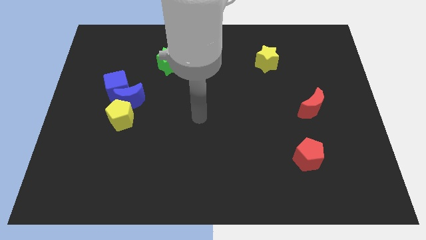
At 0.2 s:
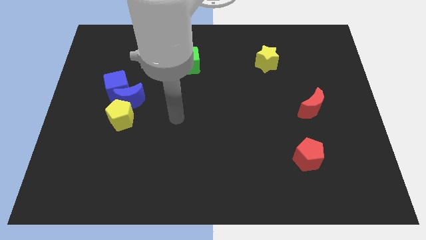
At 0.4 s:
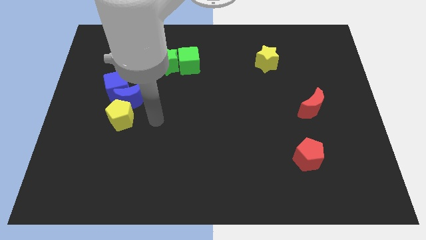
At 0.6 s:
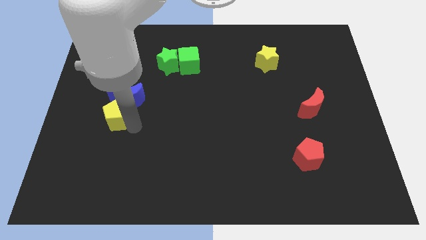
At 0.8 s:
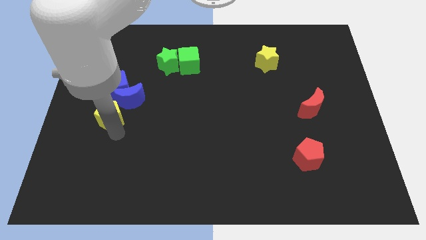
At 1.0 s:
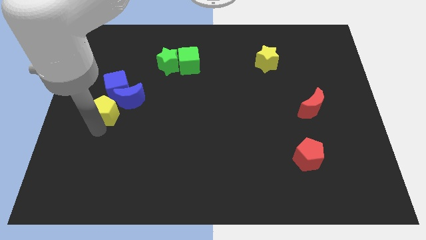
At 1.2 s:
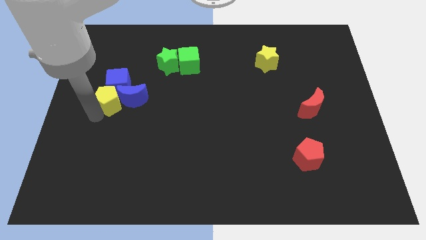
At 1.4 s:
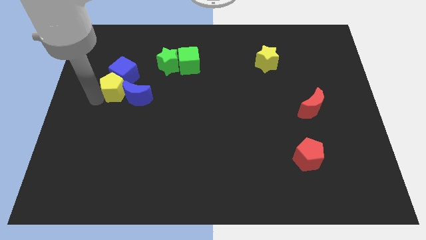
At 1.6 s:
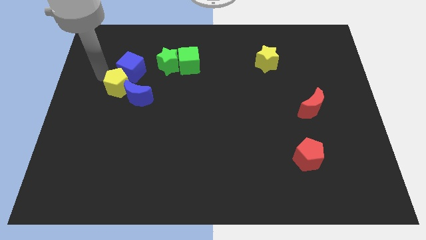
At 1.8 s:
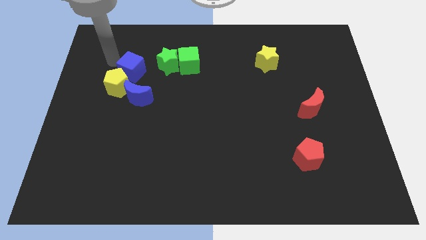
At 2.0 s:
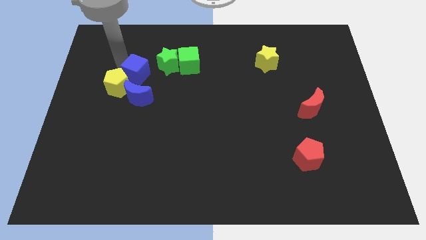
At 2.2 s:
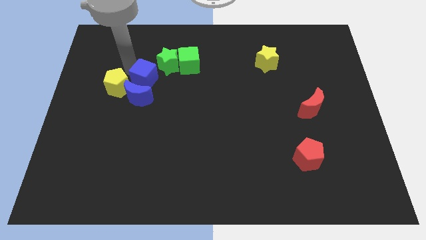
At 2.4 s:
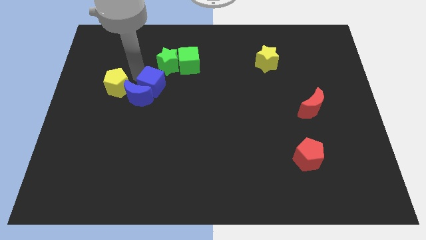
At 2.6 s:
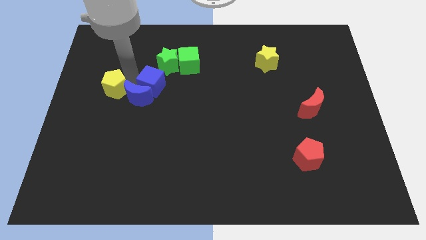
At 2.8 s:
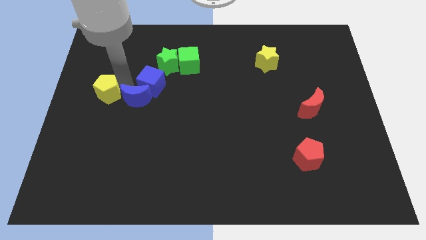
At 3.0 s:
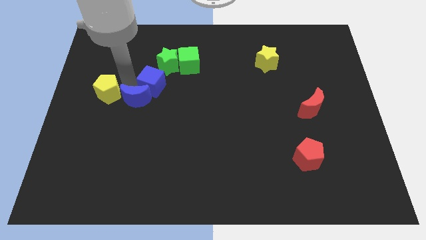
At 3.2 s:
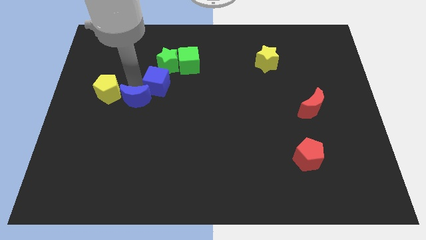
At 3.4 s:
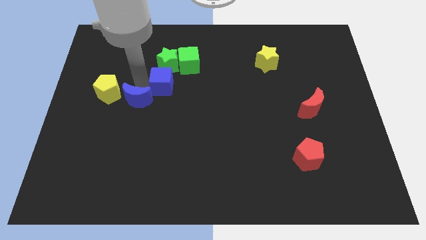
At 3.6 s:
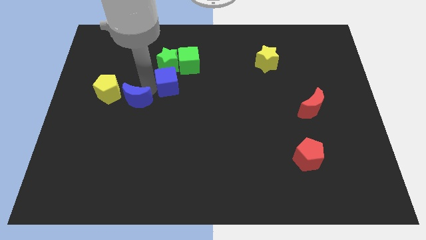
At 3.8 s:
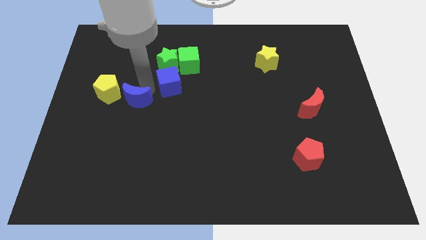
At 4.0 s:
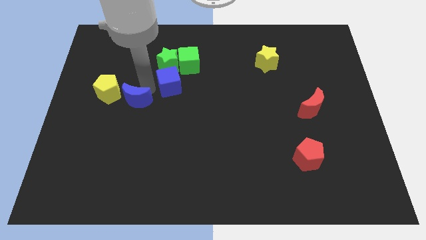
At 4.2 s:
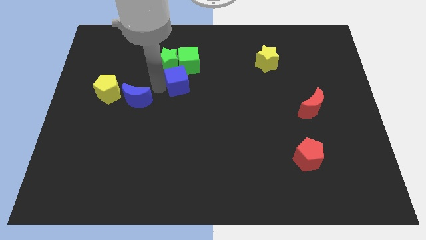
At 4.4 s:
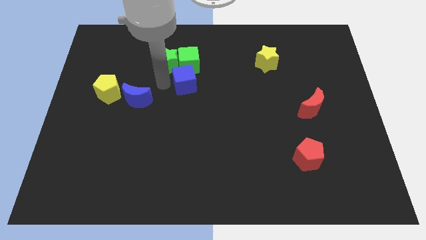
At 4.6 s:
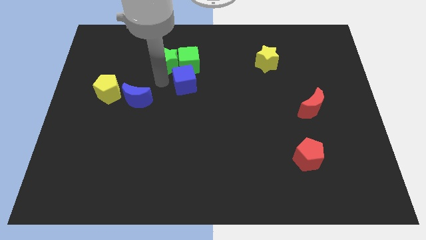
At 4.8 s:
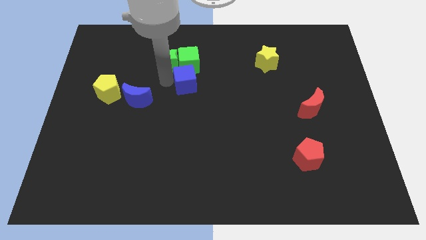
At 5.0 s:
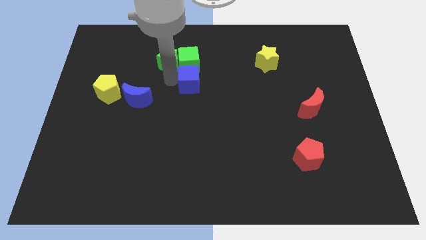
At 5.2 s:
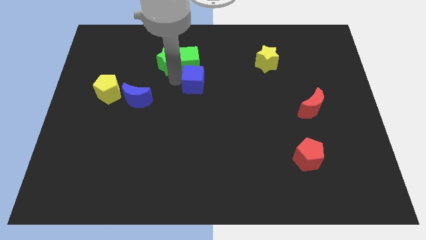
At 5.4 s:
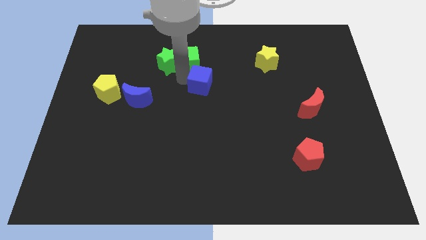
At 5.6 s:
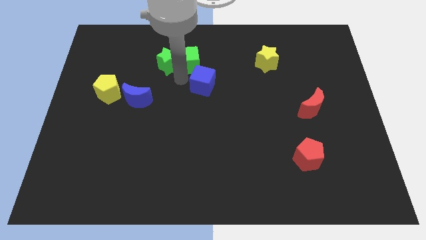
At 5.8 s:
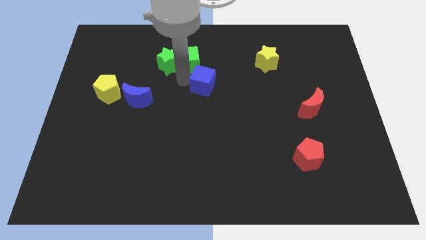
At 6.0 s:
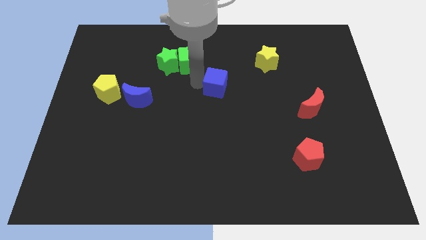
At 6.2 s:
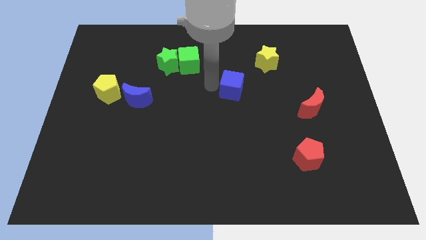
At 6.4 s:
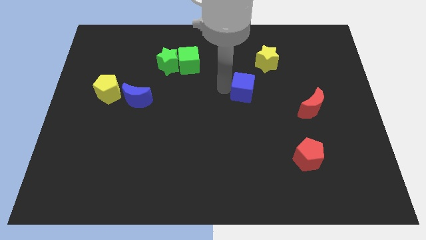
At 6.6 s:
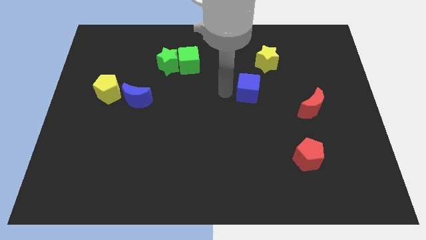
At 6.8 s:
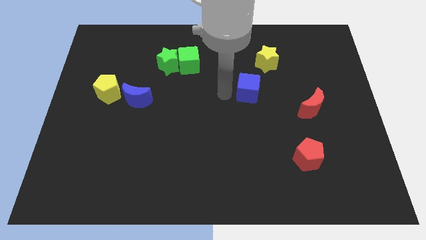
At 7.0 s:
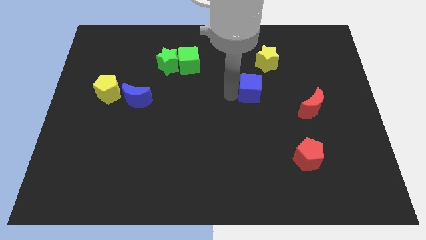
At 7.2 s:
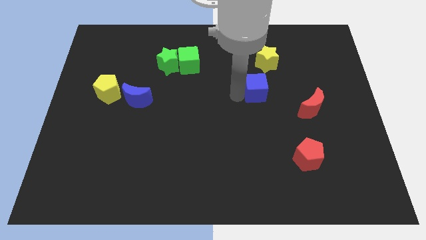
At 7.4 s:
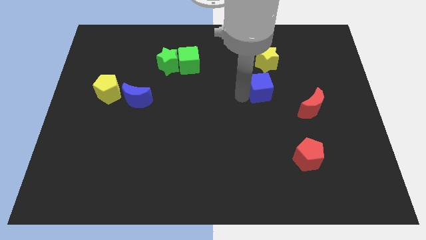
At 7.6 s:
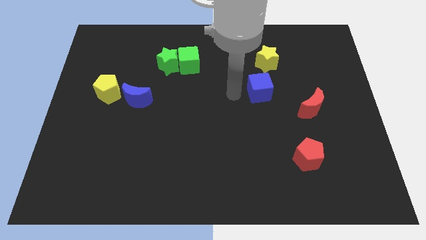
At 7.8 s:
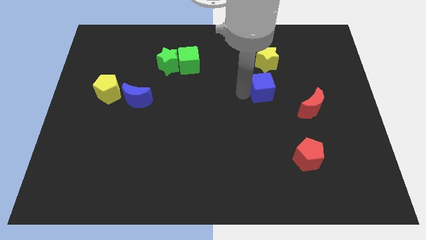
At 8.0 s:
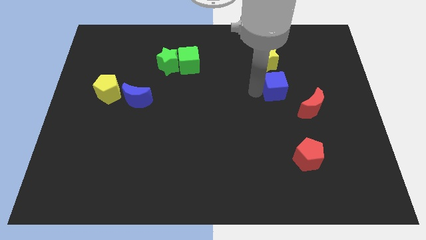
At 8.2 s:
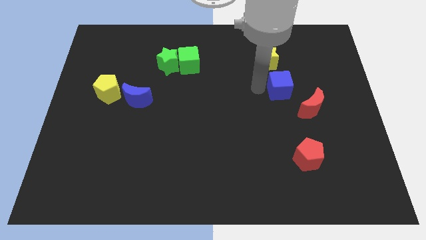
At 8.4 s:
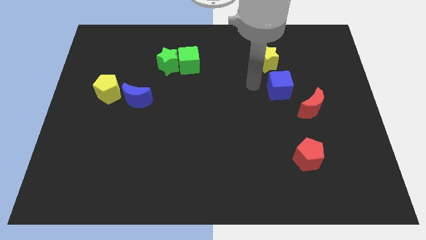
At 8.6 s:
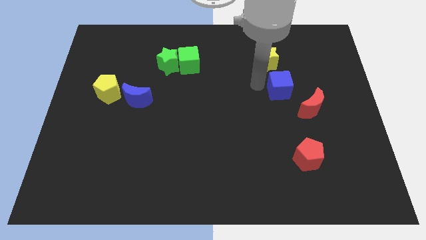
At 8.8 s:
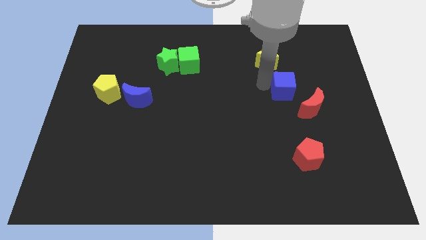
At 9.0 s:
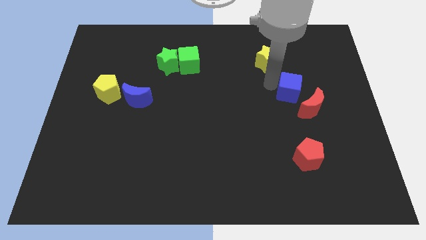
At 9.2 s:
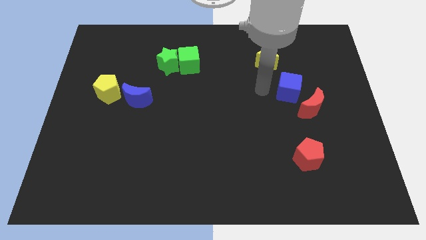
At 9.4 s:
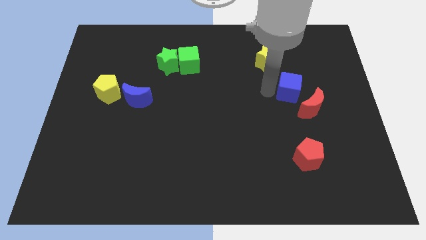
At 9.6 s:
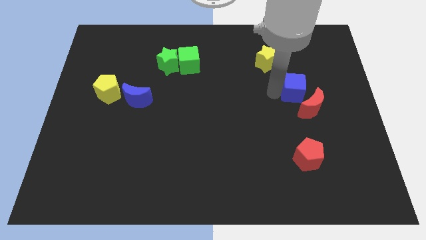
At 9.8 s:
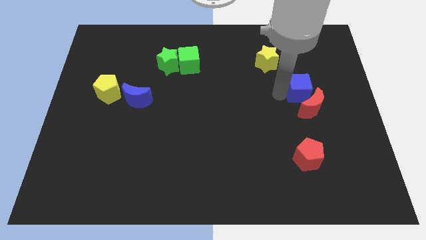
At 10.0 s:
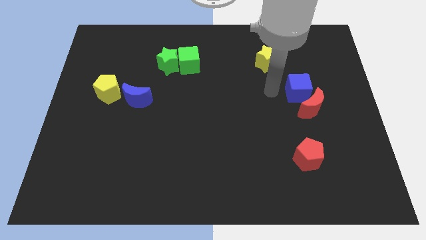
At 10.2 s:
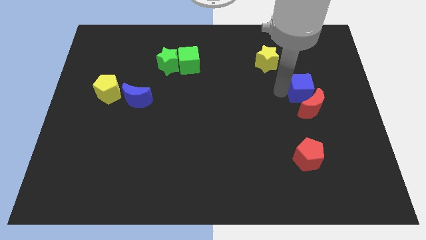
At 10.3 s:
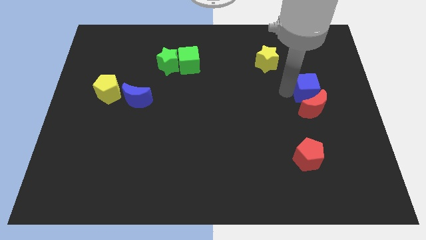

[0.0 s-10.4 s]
slide the blue cube to the top right of the red moon

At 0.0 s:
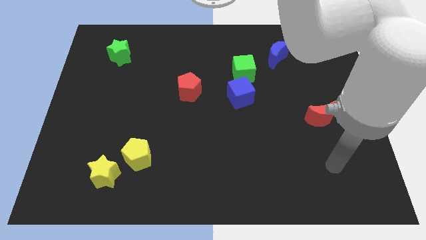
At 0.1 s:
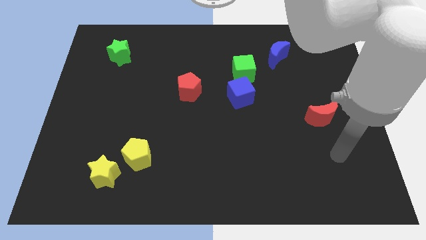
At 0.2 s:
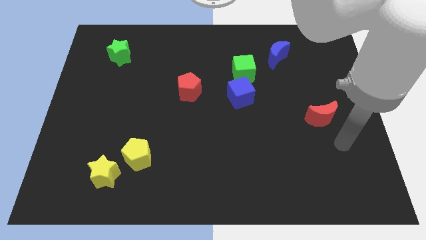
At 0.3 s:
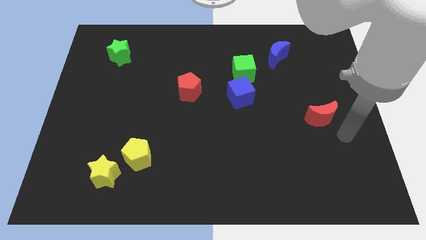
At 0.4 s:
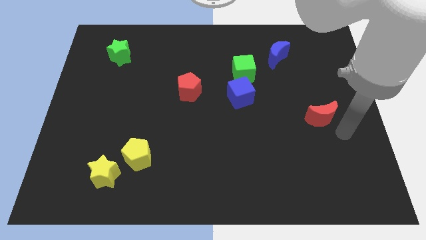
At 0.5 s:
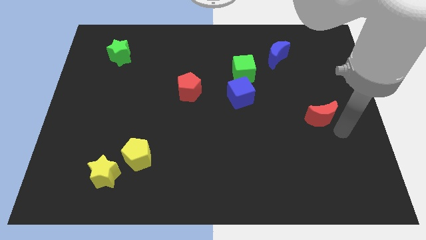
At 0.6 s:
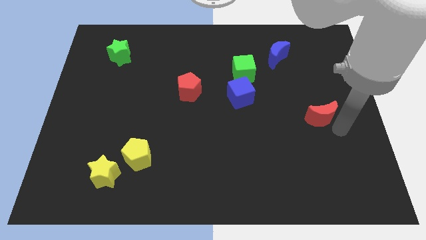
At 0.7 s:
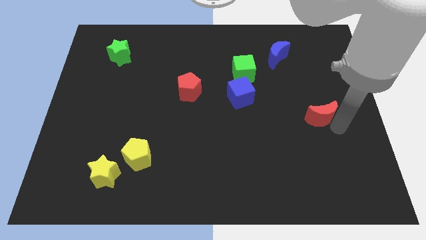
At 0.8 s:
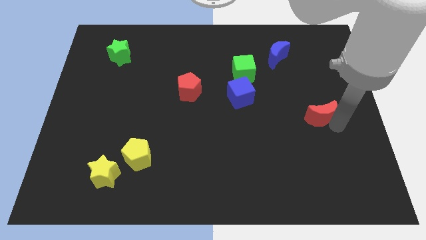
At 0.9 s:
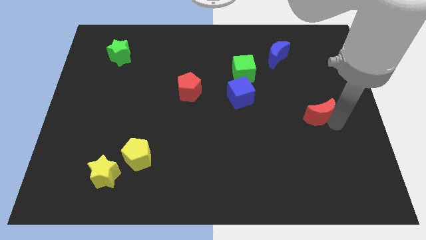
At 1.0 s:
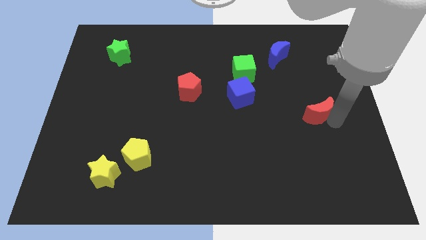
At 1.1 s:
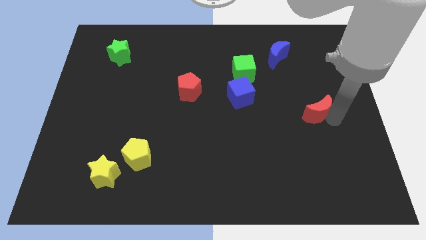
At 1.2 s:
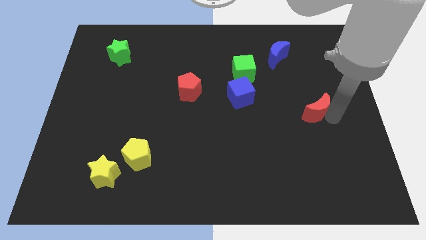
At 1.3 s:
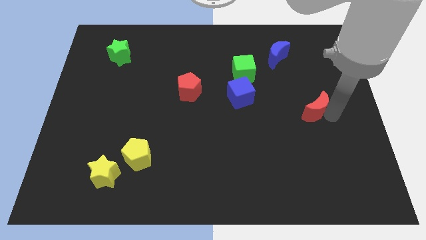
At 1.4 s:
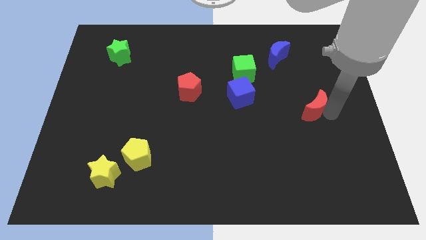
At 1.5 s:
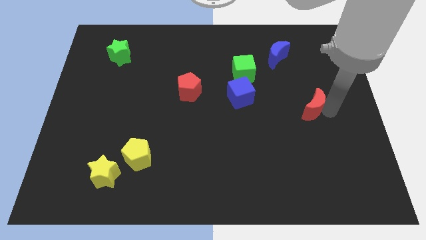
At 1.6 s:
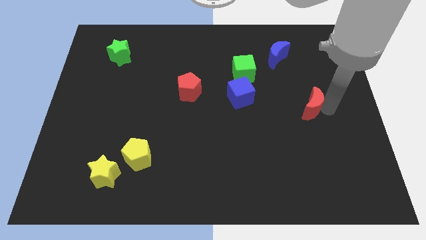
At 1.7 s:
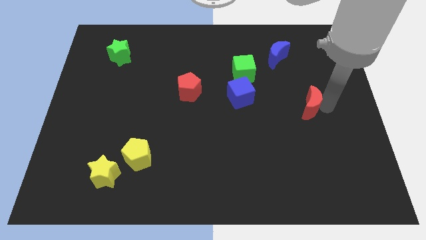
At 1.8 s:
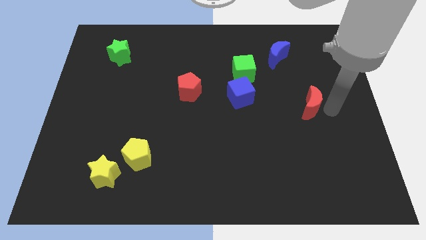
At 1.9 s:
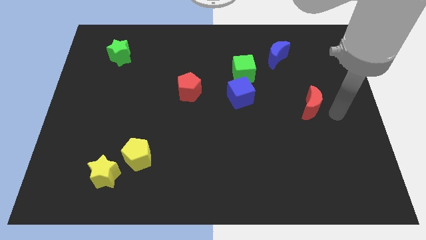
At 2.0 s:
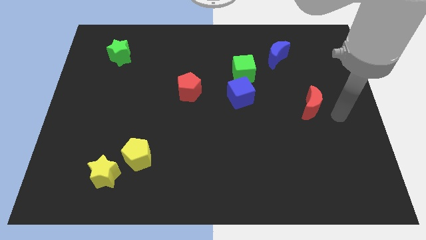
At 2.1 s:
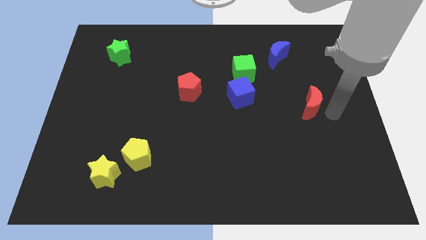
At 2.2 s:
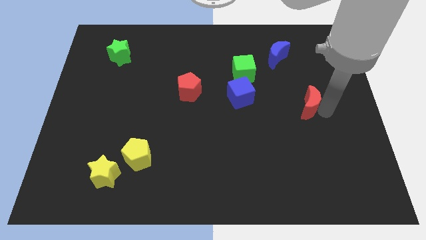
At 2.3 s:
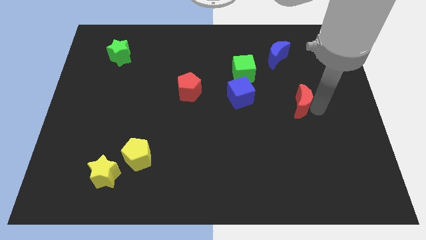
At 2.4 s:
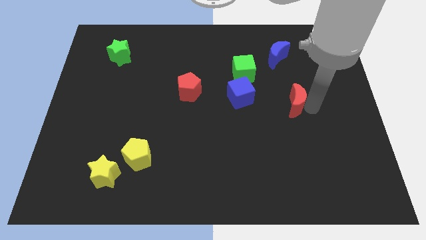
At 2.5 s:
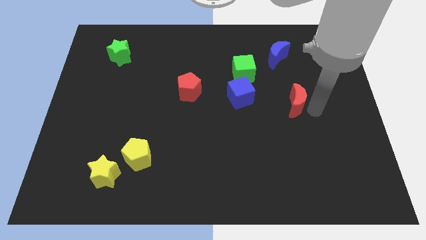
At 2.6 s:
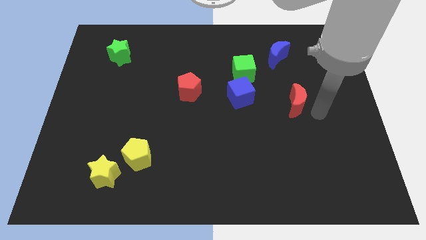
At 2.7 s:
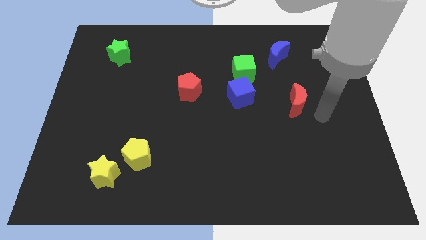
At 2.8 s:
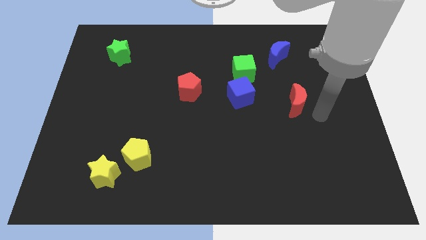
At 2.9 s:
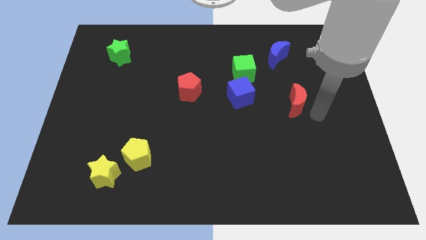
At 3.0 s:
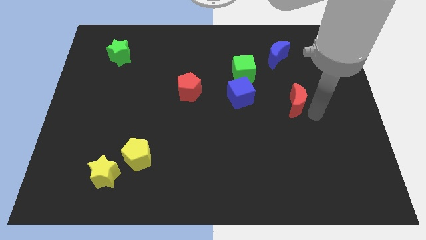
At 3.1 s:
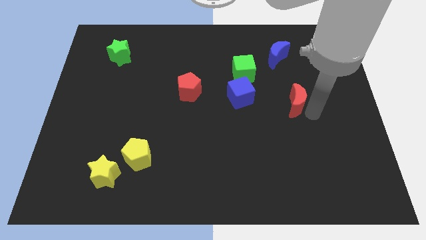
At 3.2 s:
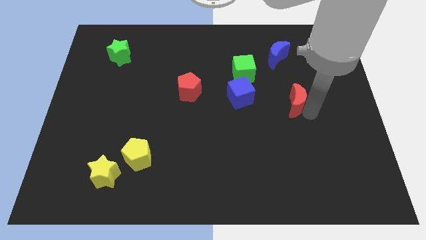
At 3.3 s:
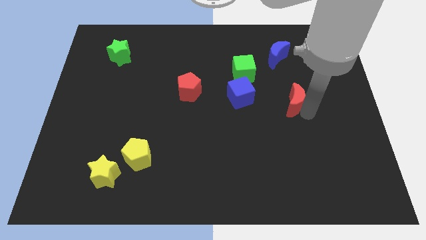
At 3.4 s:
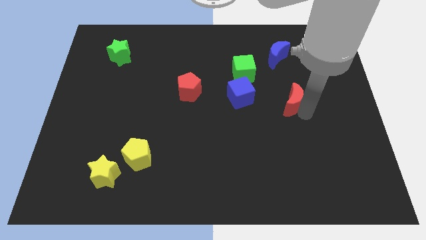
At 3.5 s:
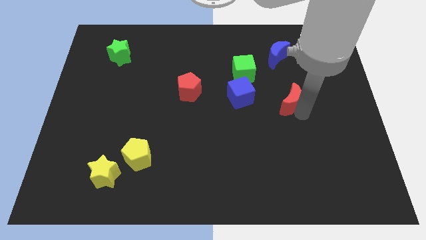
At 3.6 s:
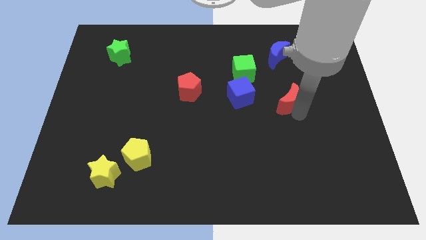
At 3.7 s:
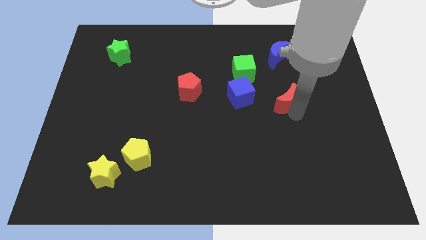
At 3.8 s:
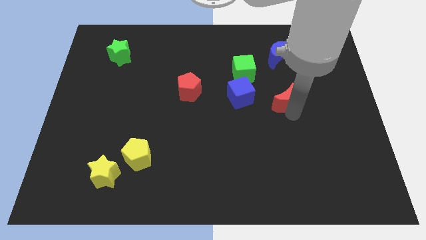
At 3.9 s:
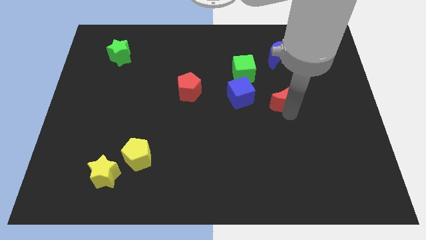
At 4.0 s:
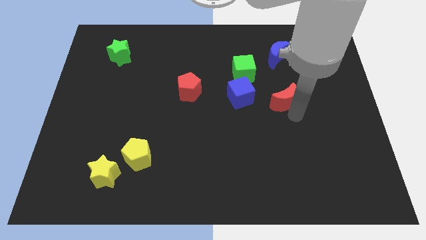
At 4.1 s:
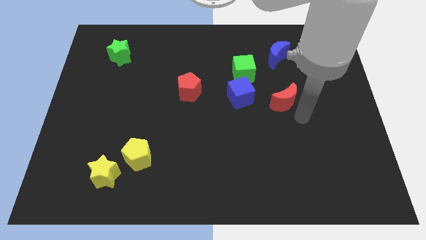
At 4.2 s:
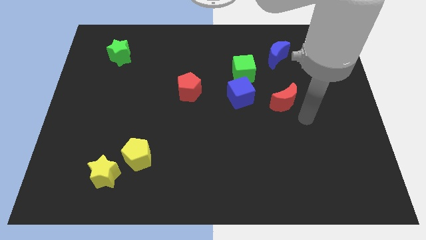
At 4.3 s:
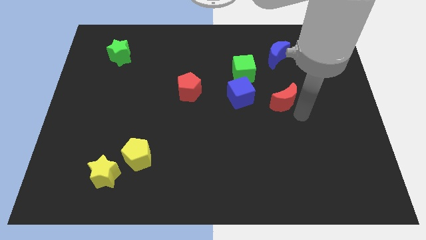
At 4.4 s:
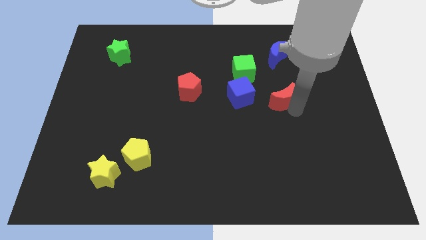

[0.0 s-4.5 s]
slide the red moon diagonally down and to the right of the green cube
